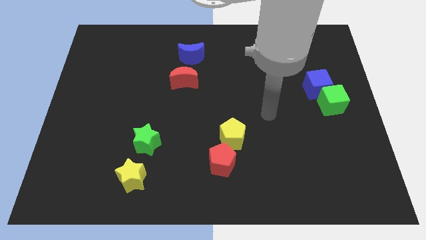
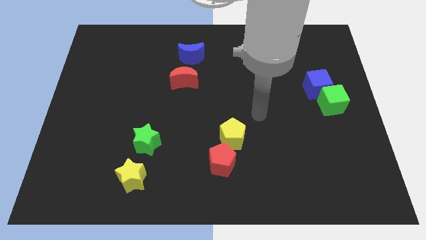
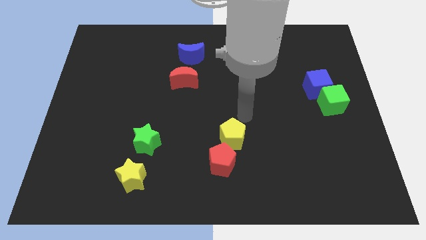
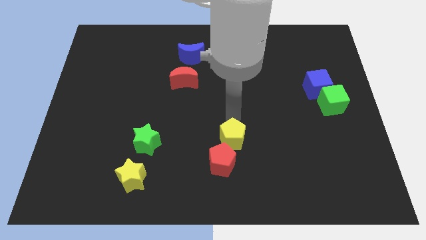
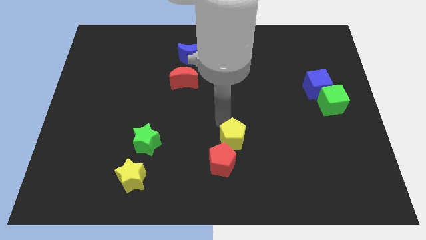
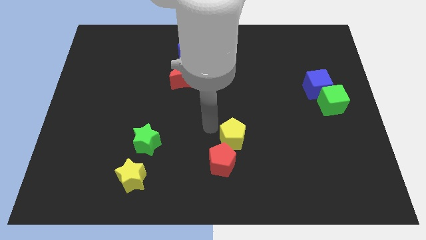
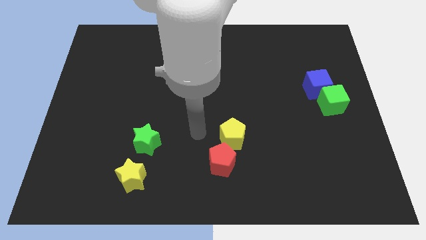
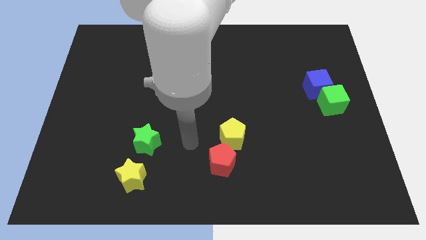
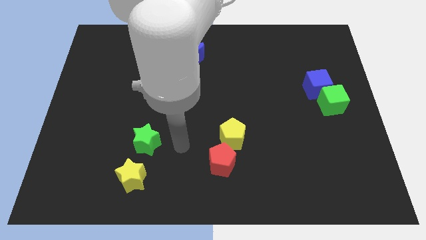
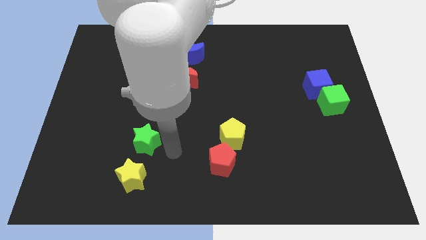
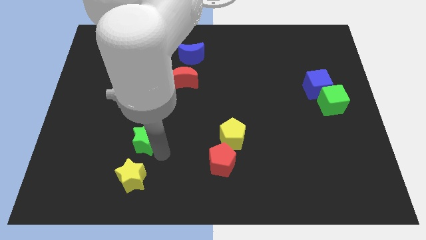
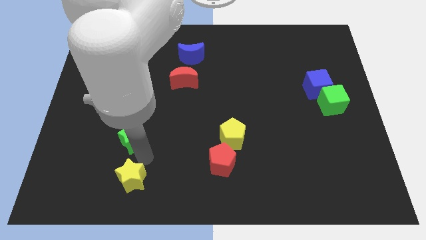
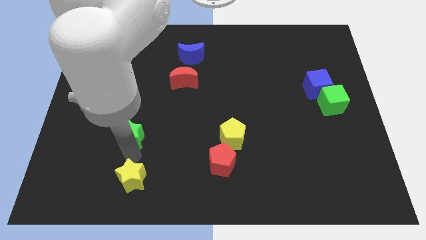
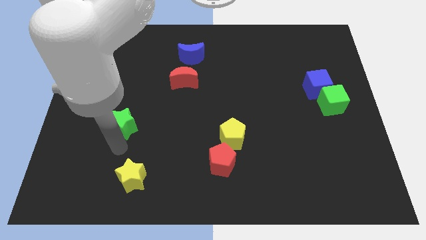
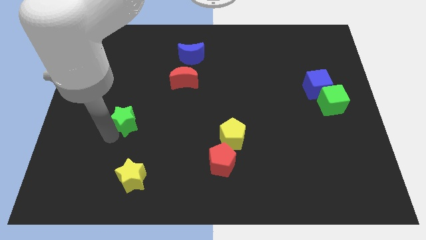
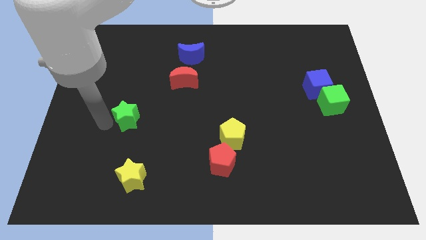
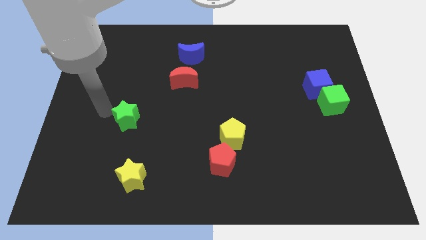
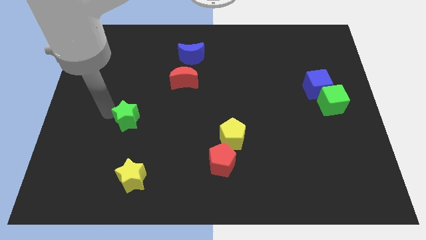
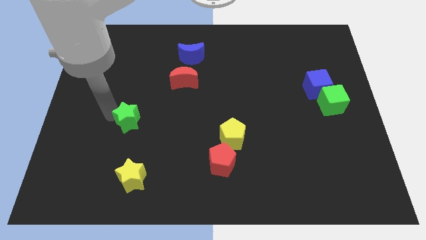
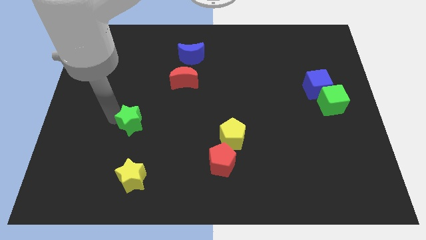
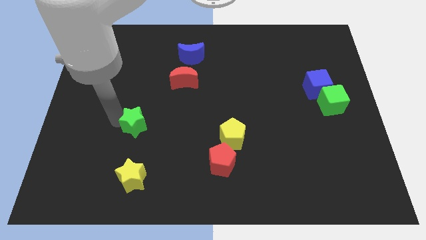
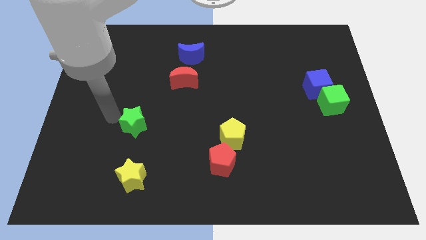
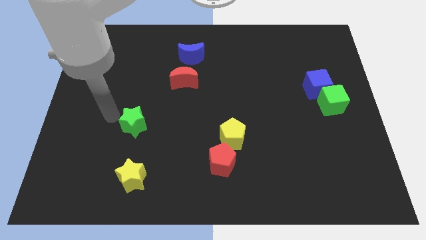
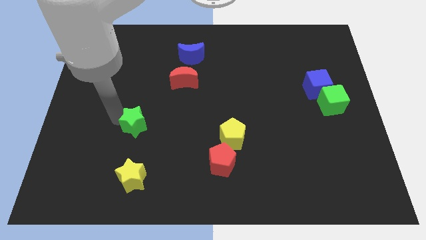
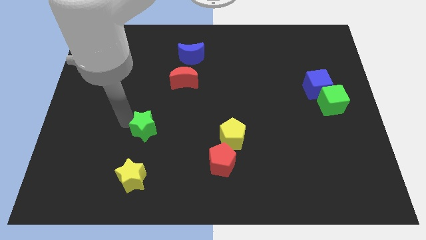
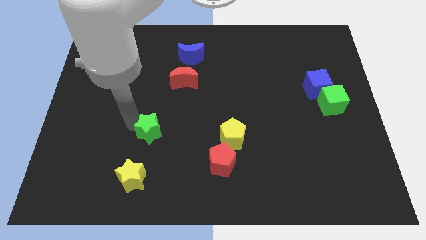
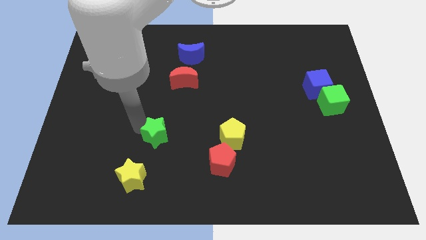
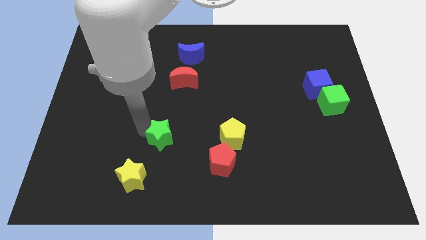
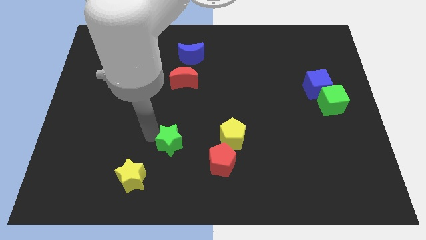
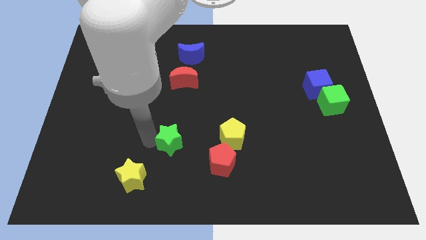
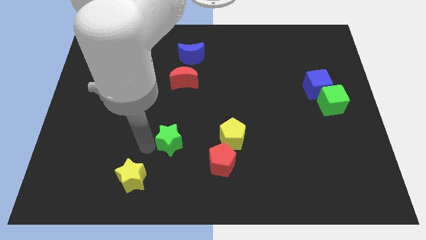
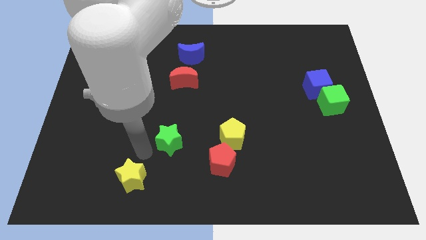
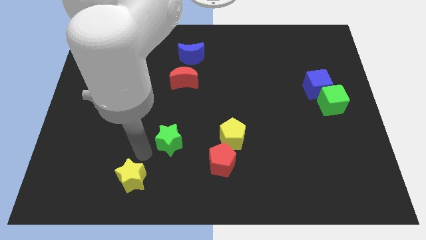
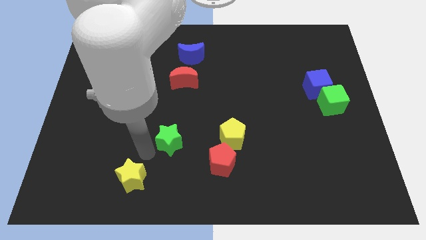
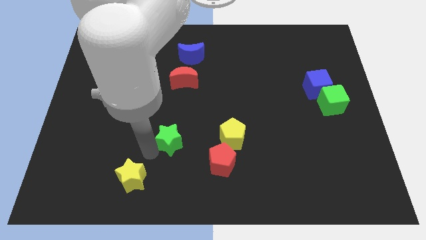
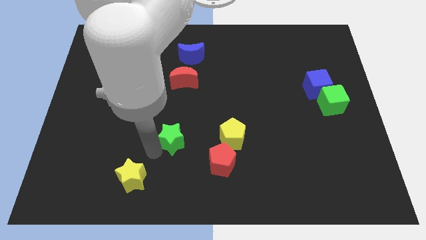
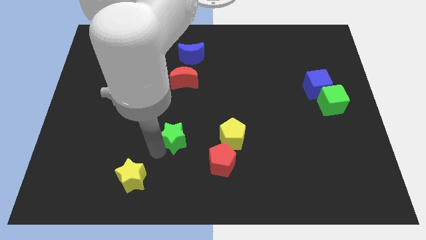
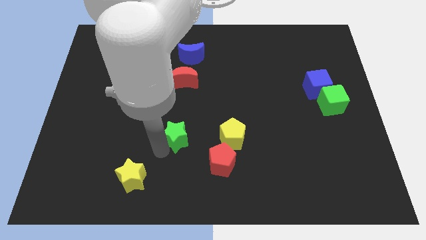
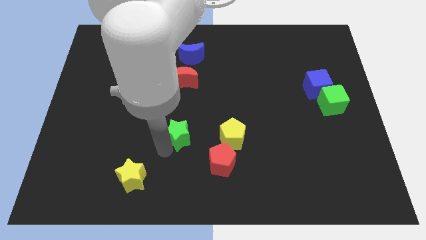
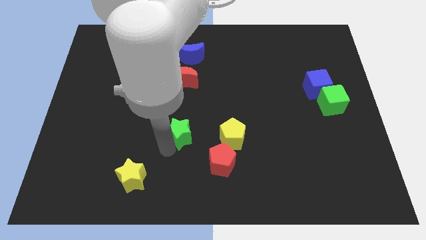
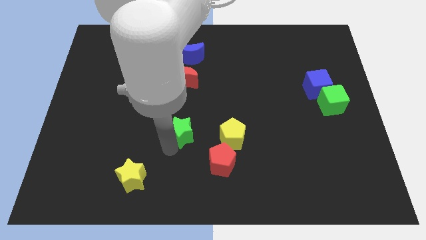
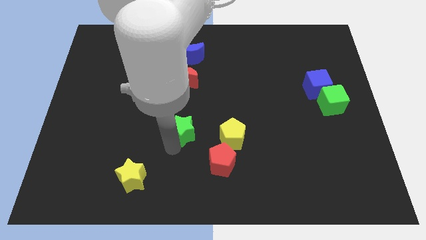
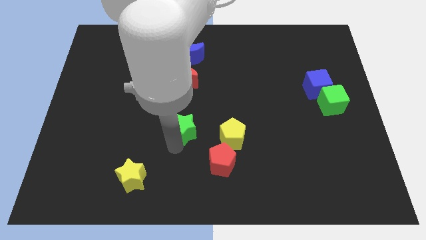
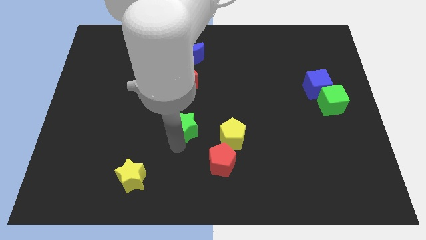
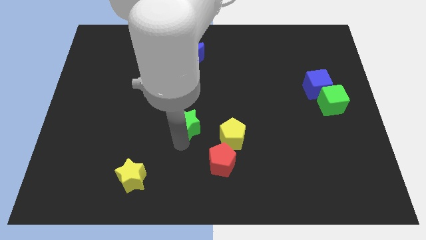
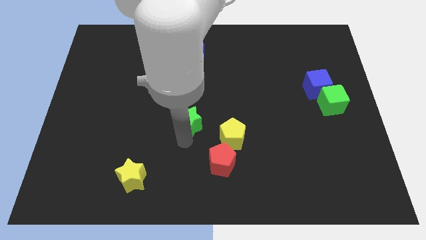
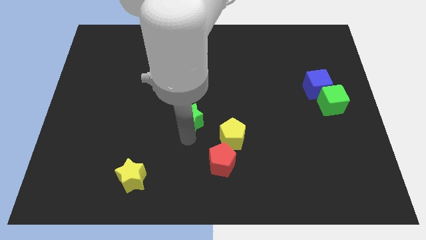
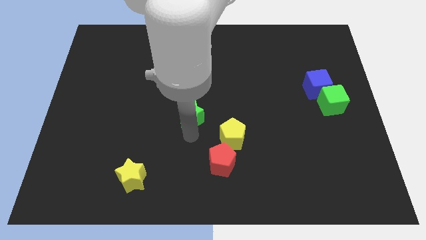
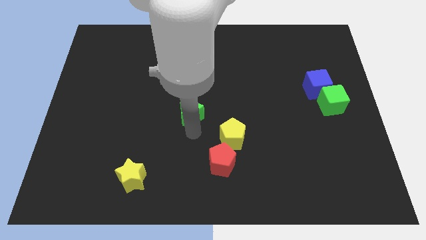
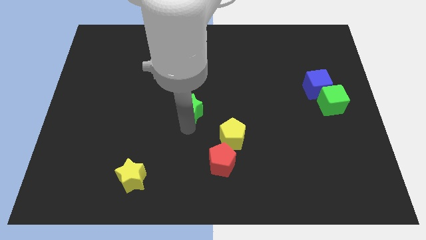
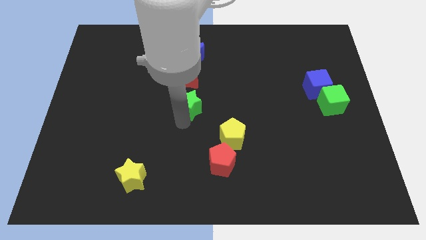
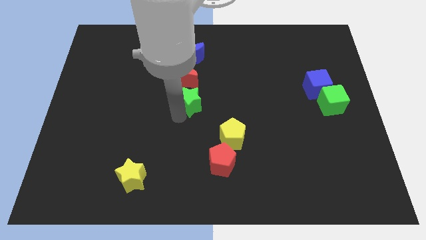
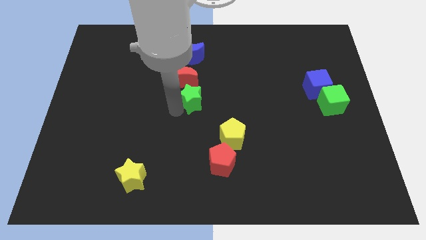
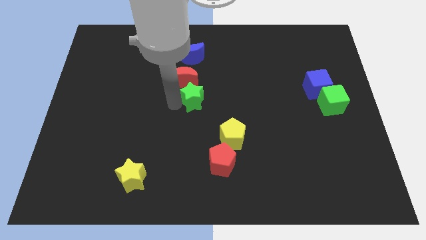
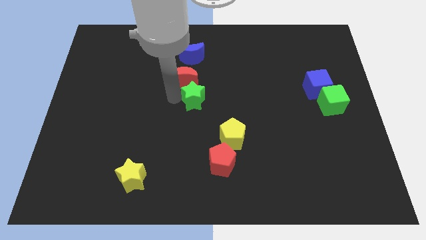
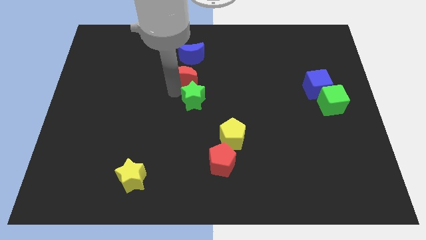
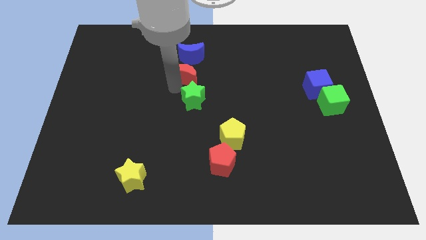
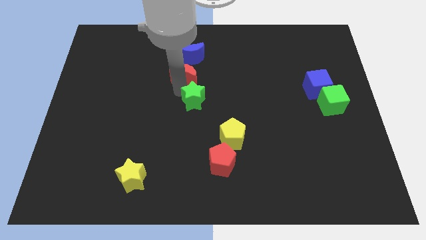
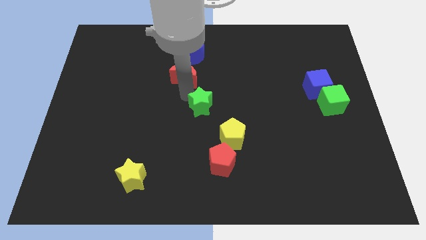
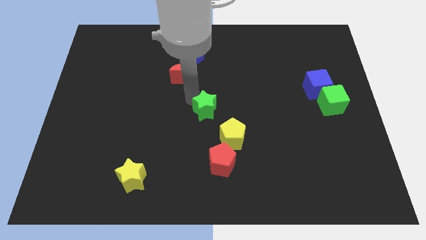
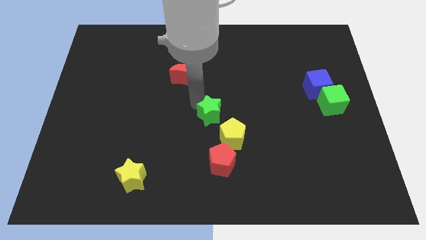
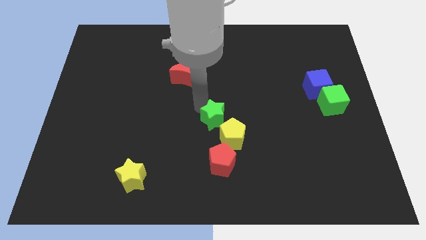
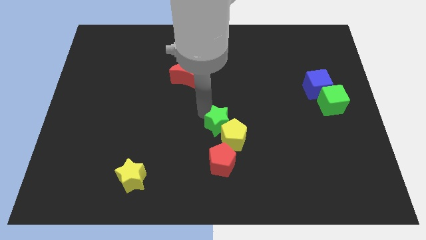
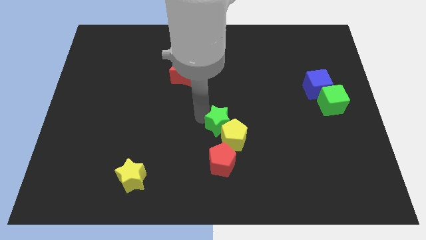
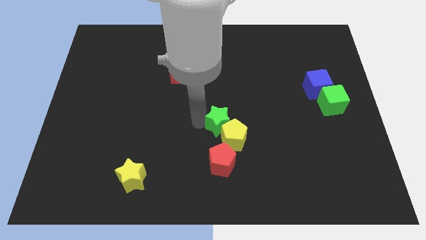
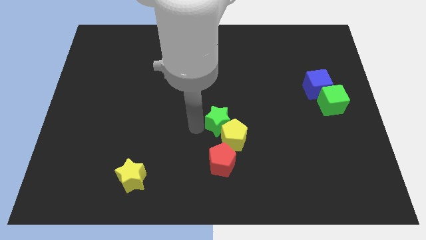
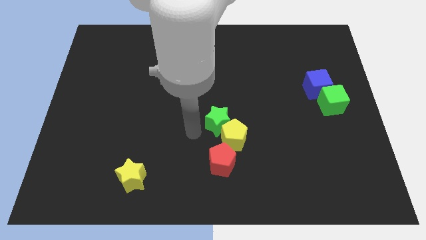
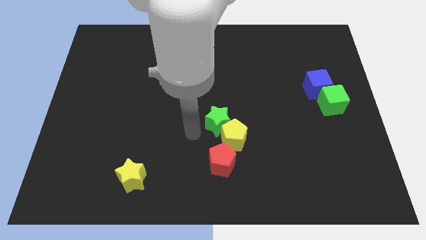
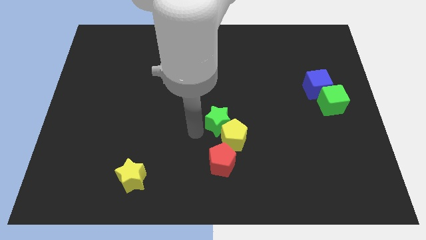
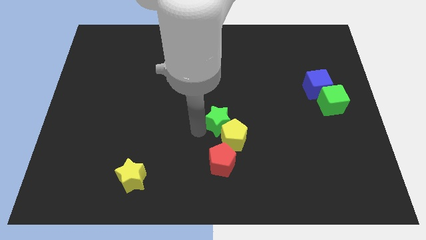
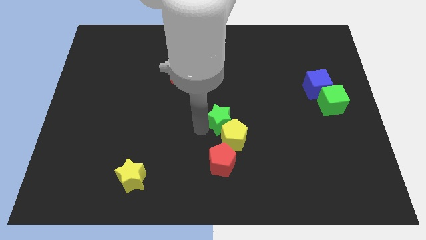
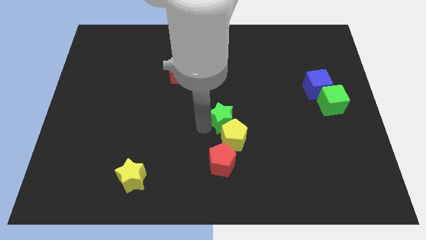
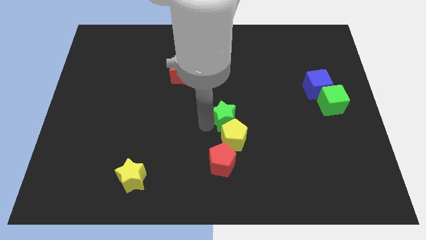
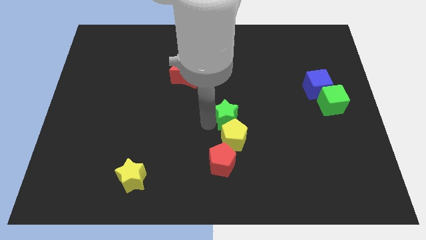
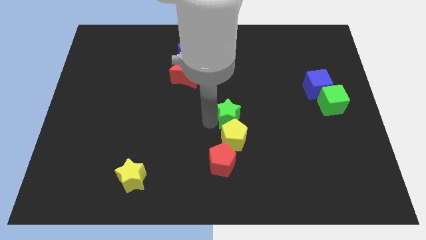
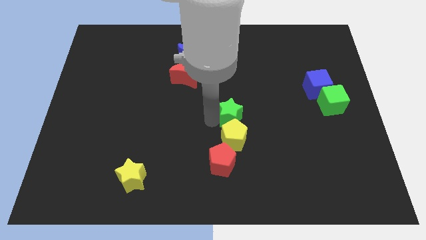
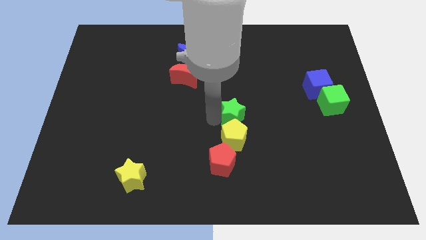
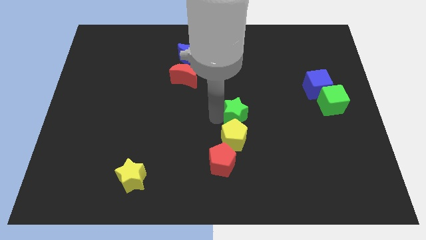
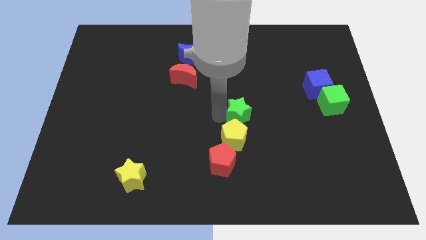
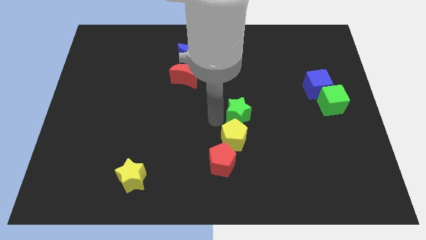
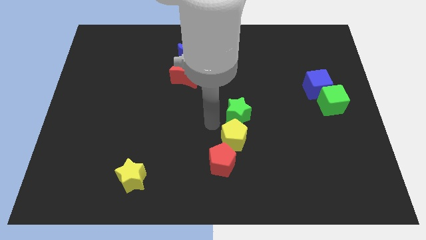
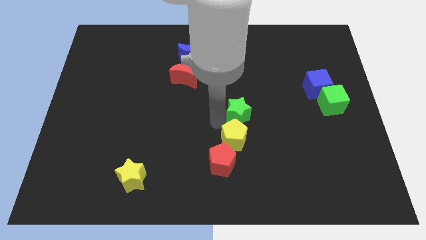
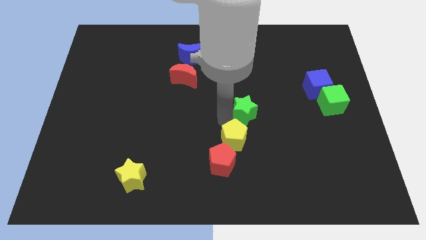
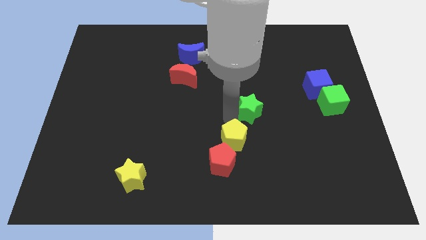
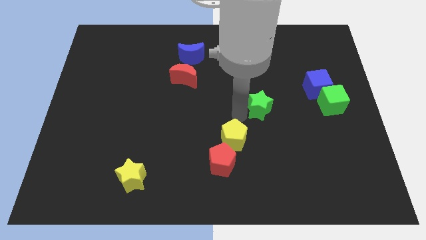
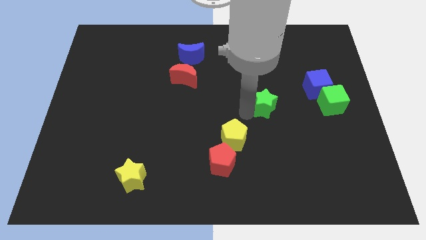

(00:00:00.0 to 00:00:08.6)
move the green star to the left of the green cube
